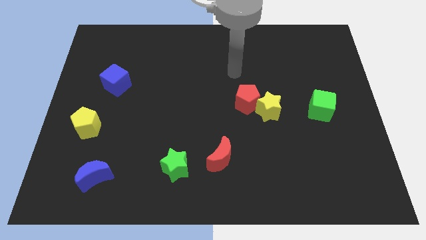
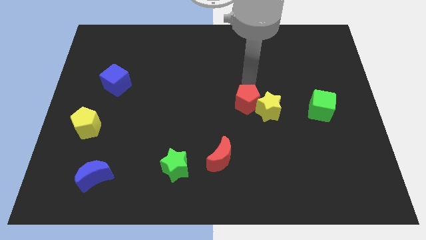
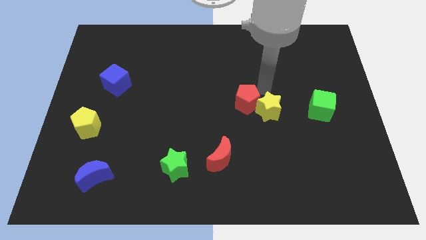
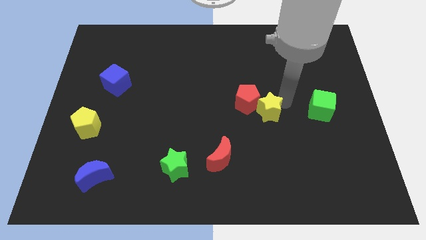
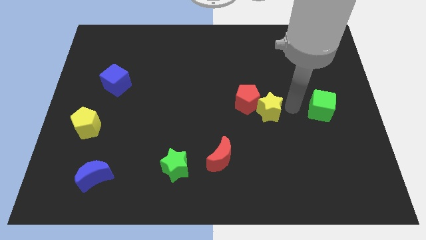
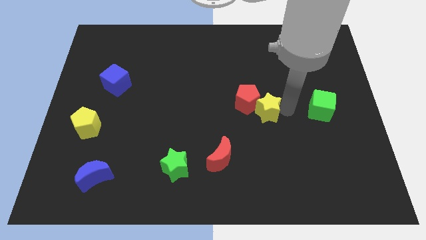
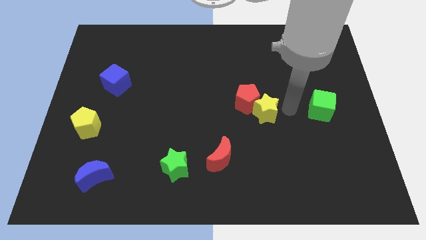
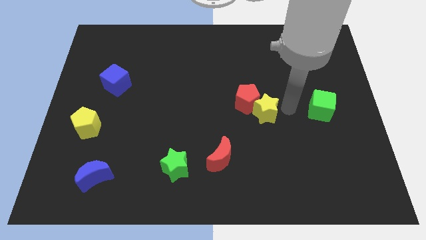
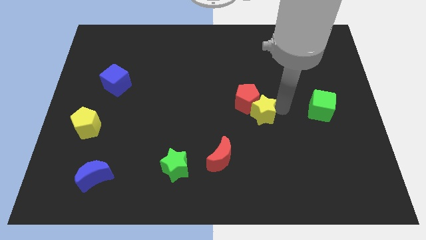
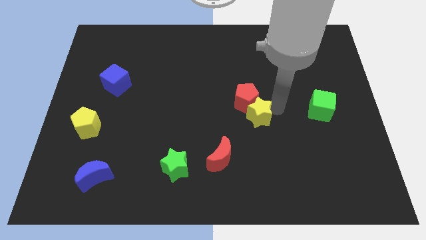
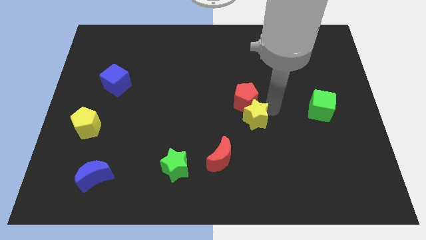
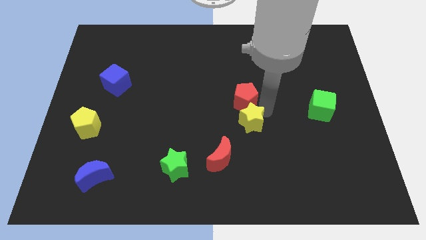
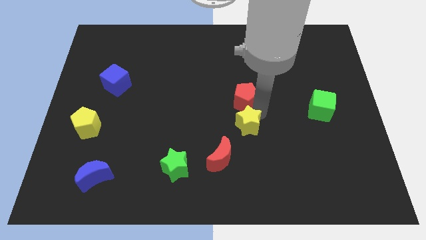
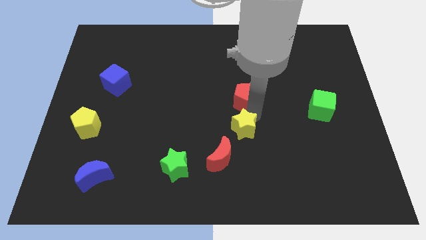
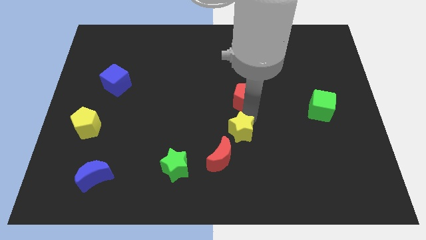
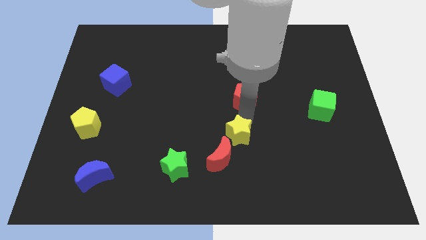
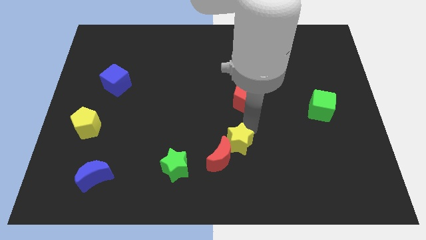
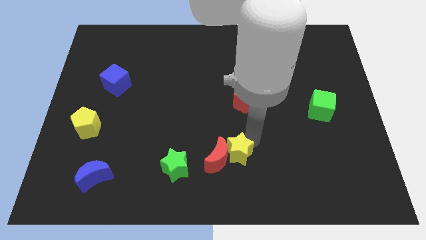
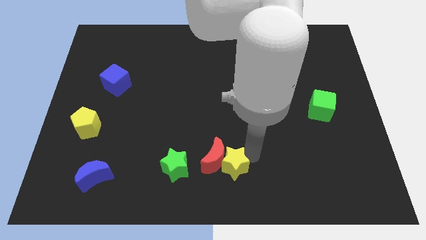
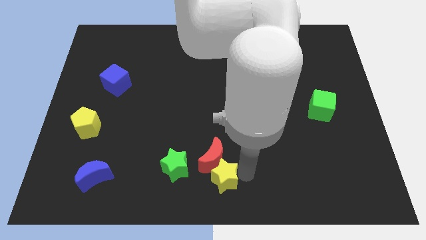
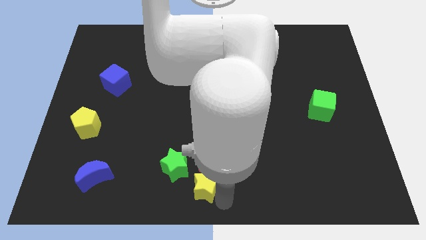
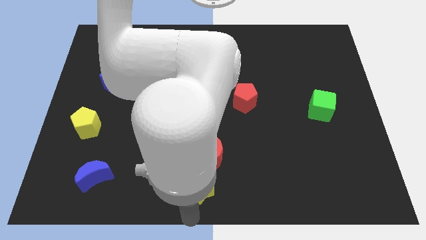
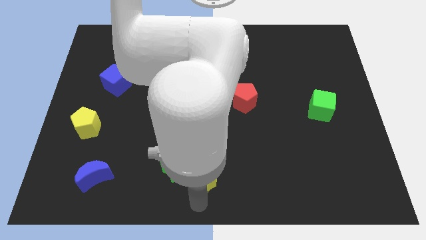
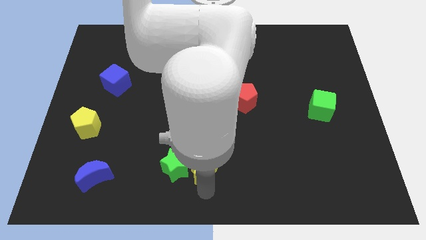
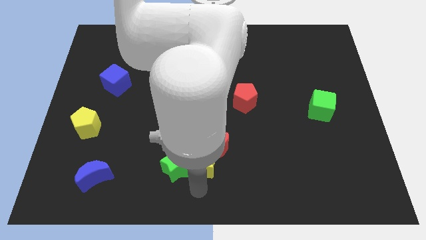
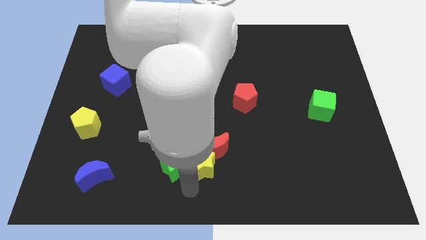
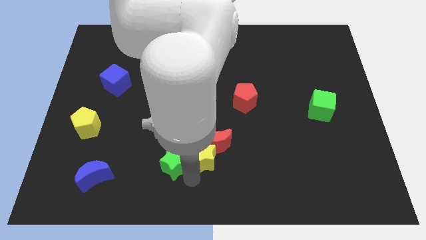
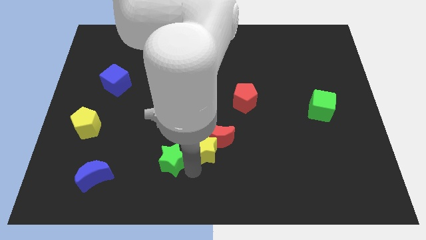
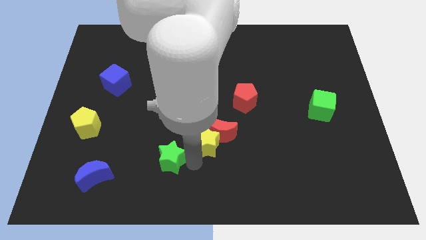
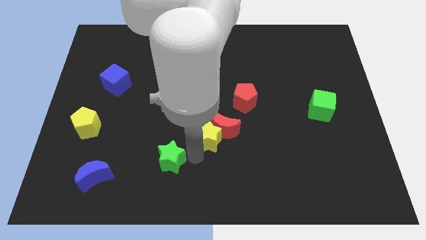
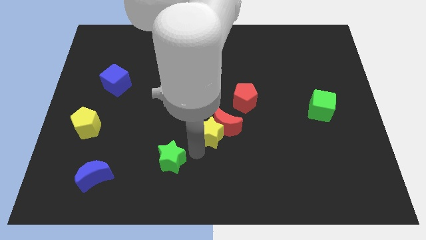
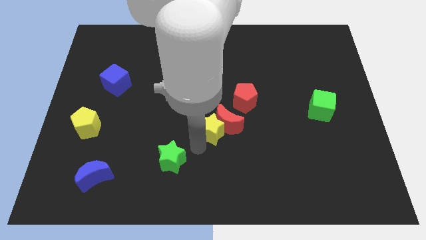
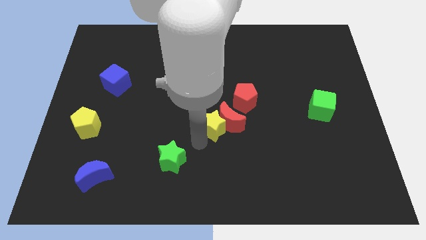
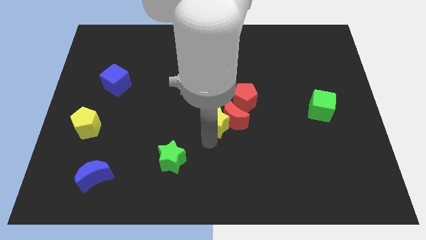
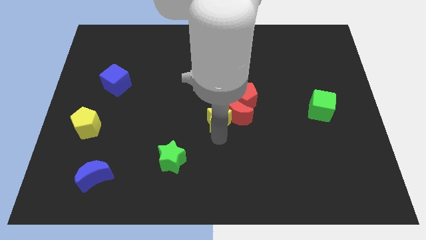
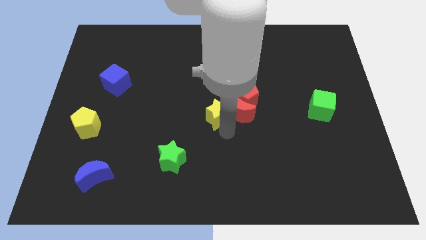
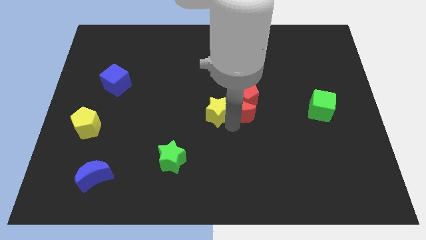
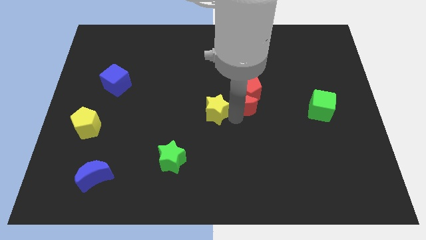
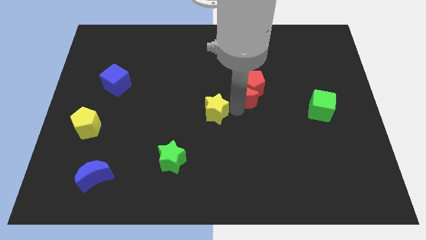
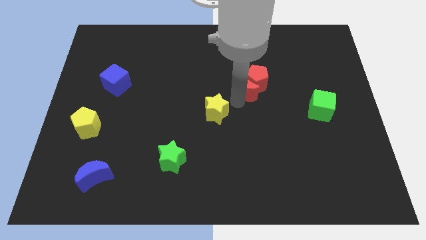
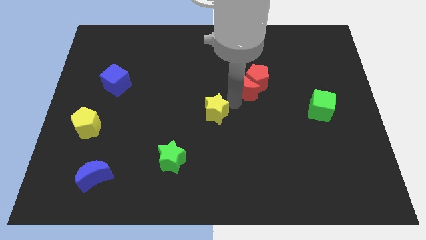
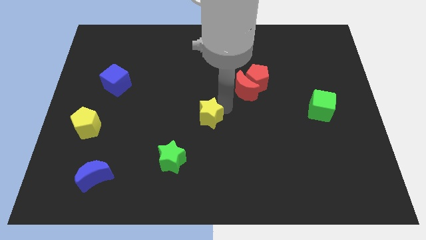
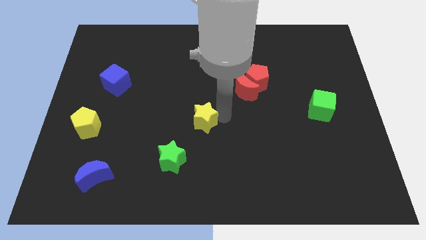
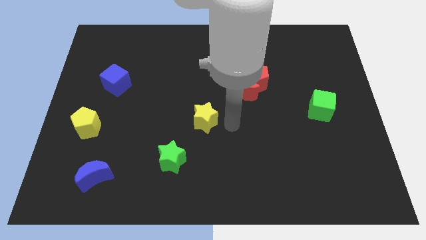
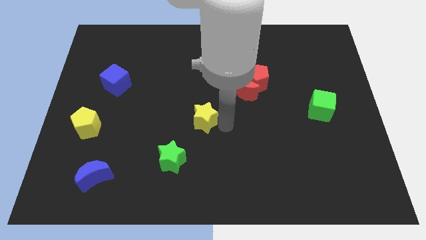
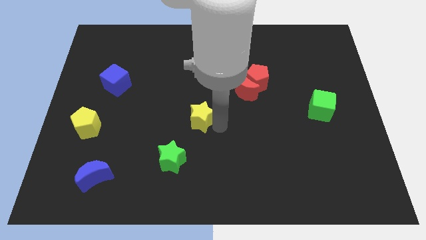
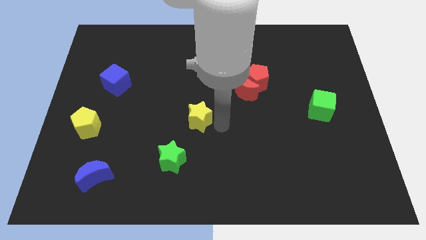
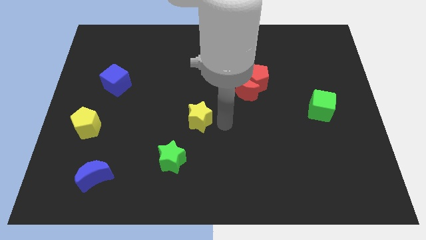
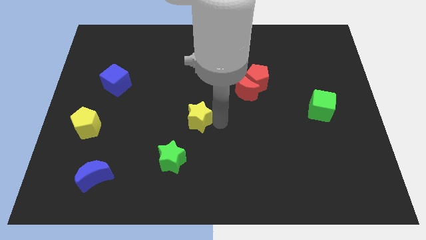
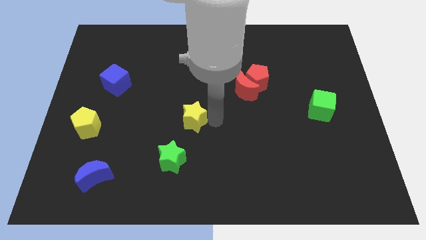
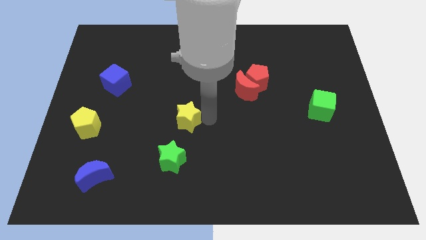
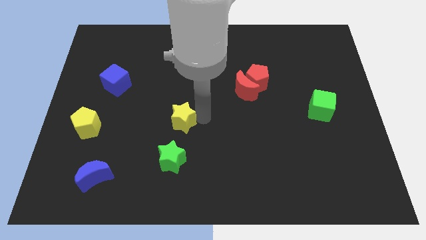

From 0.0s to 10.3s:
slide the yellow star to the left

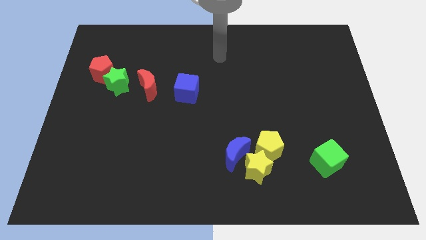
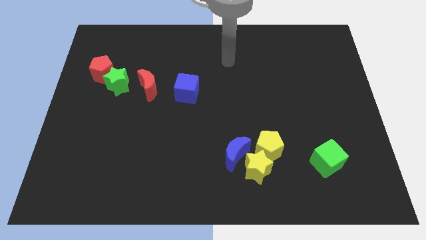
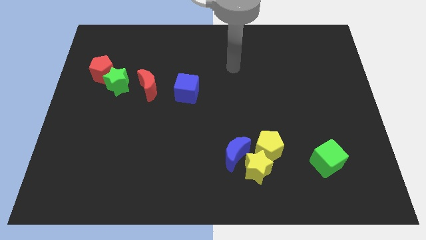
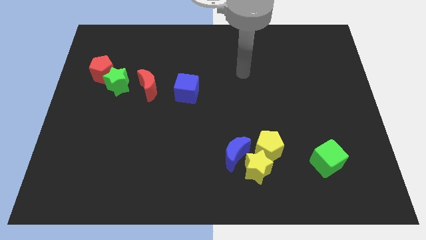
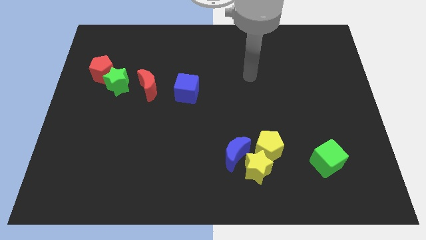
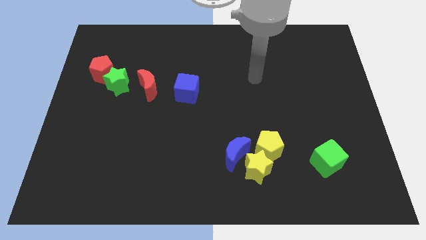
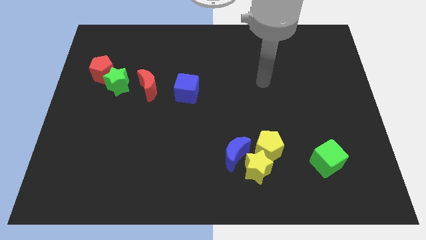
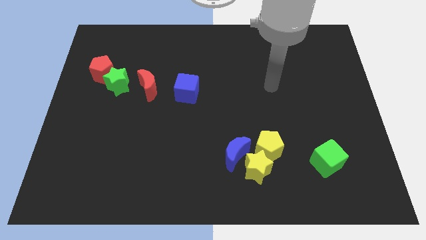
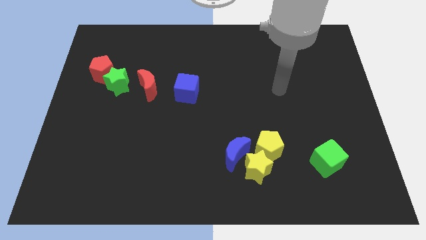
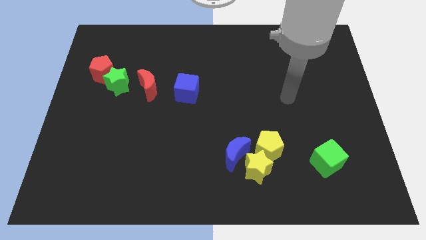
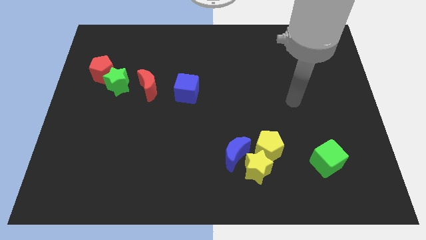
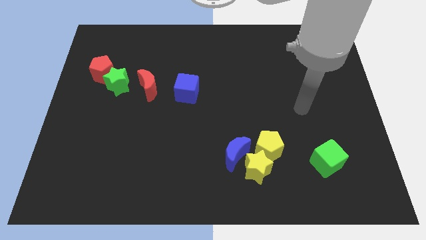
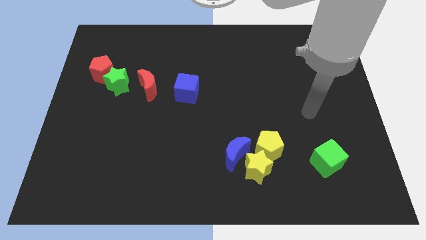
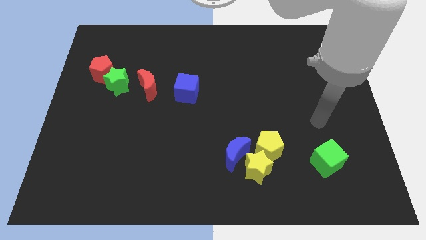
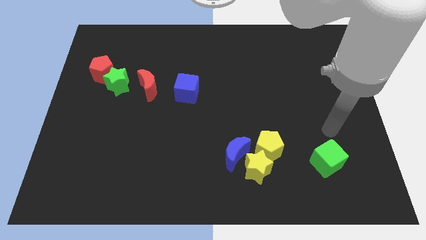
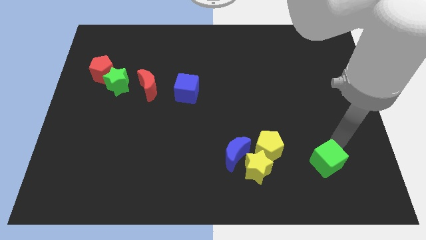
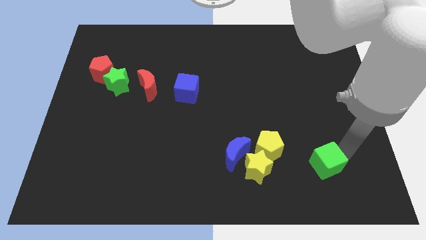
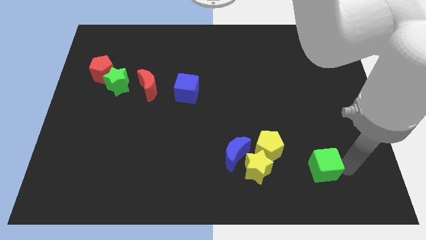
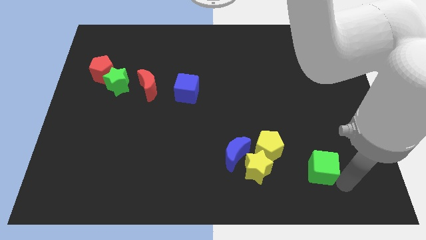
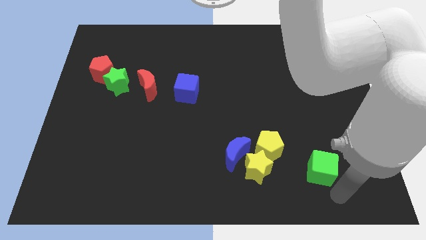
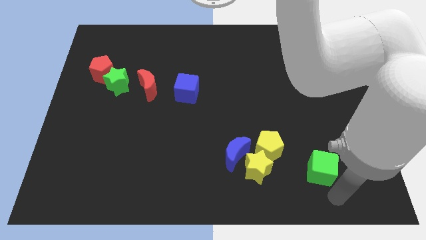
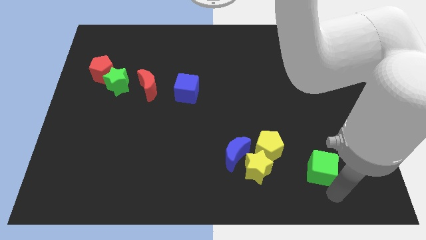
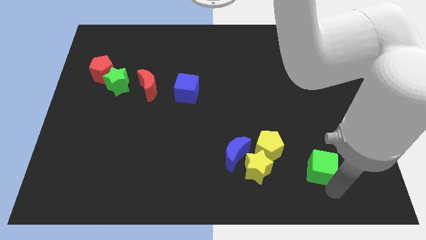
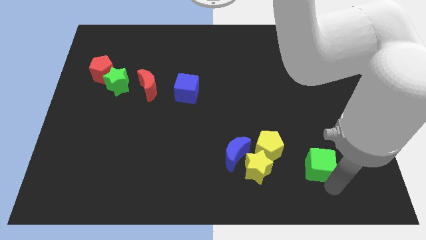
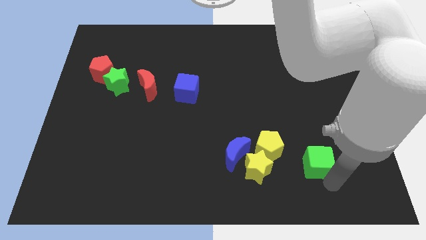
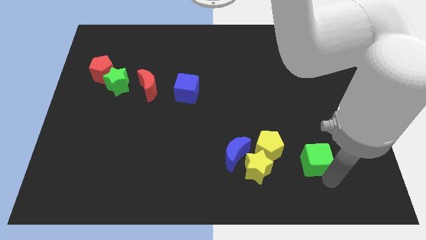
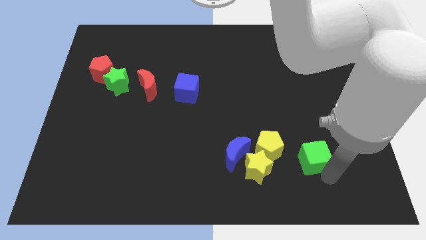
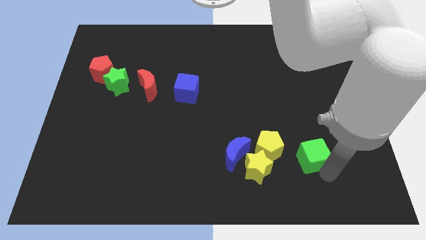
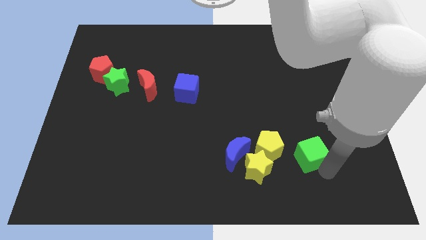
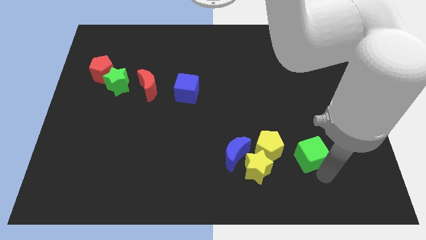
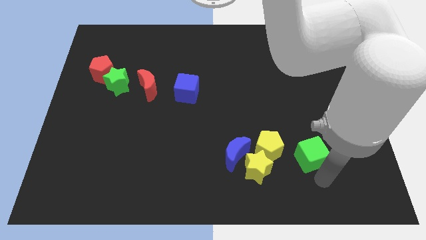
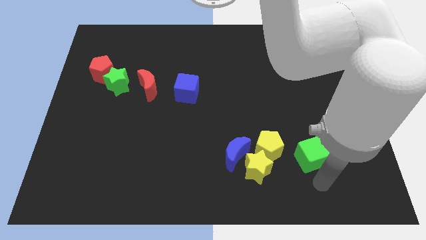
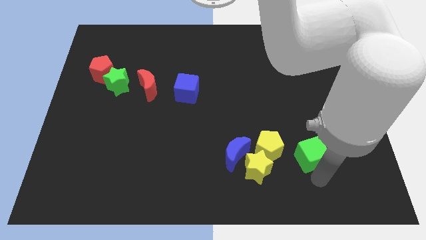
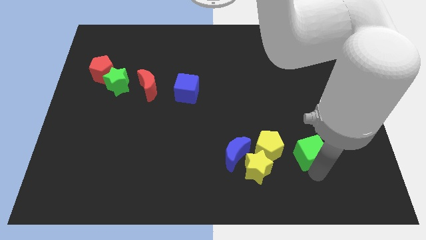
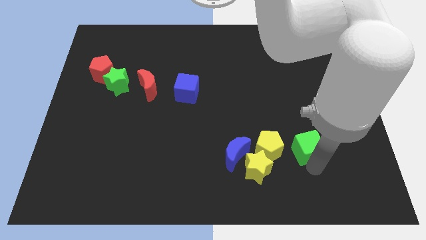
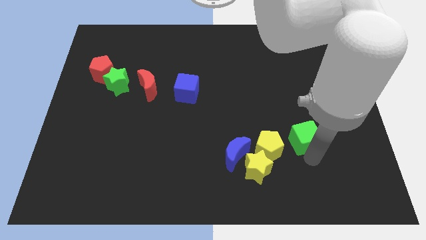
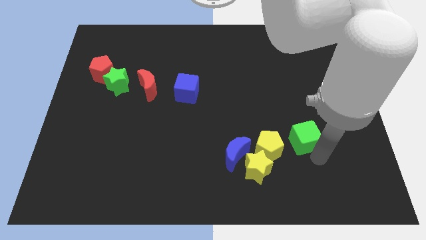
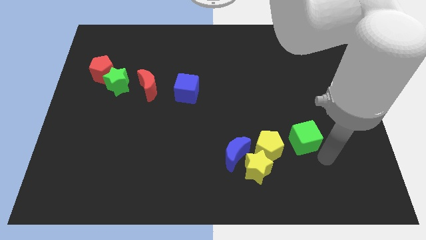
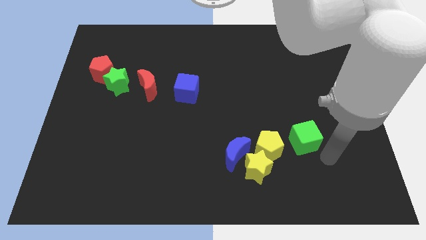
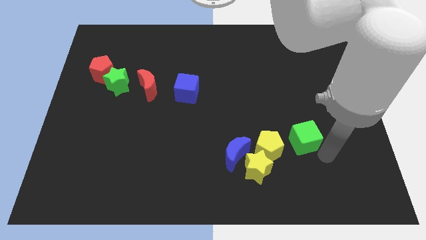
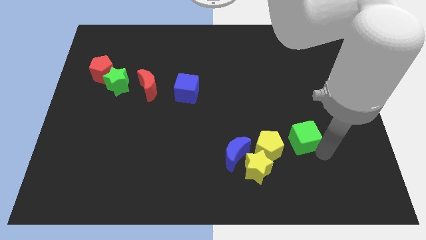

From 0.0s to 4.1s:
move the green cube somewhat up and to the left diagonally
